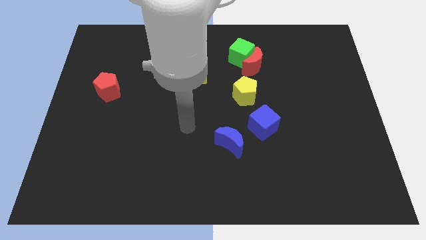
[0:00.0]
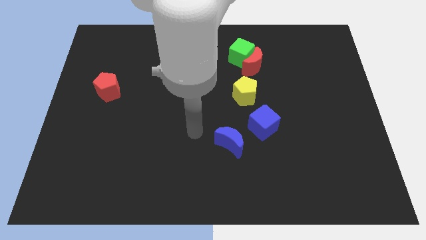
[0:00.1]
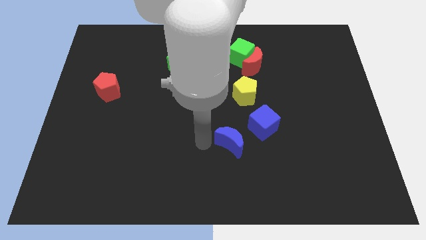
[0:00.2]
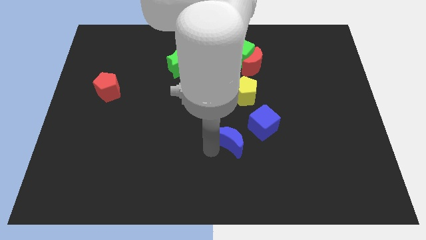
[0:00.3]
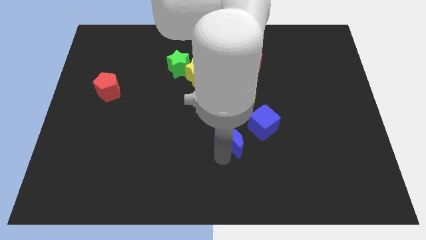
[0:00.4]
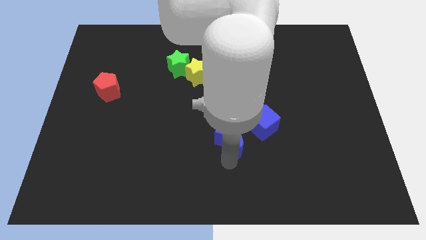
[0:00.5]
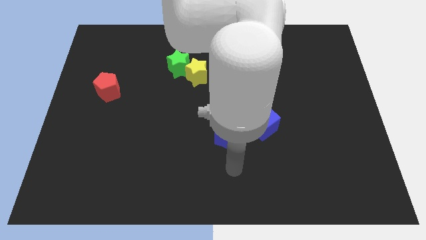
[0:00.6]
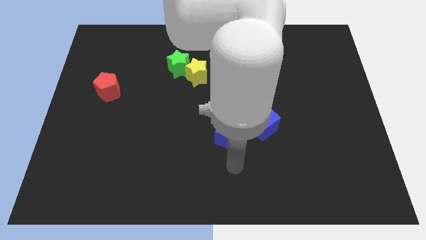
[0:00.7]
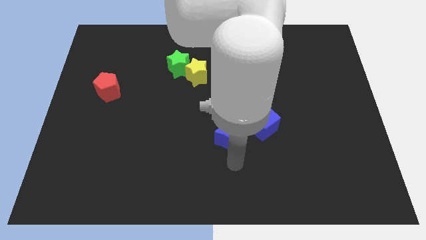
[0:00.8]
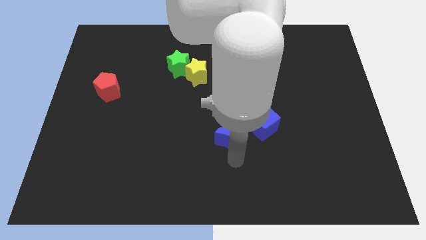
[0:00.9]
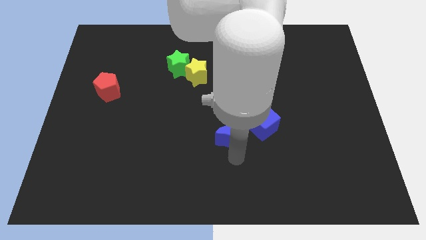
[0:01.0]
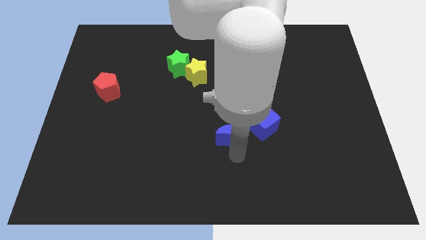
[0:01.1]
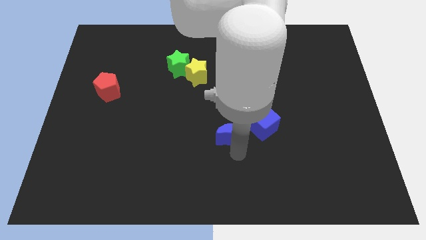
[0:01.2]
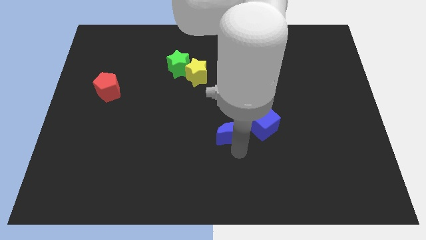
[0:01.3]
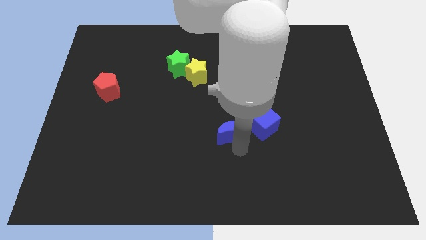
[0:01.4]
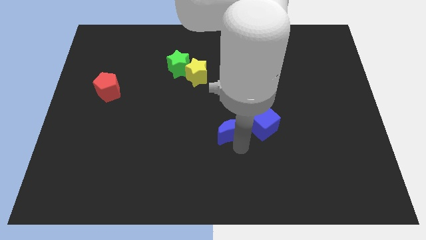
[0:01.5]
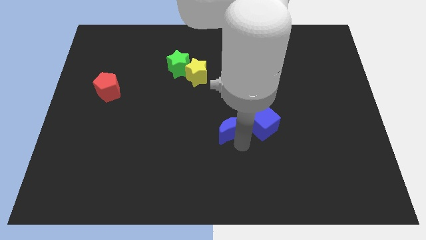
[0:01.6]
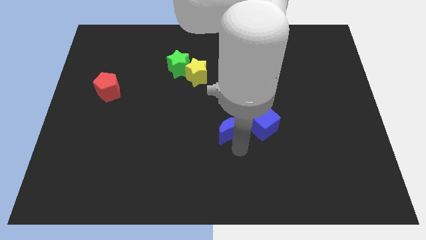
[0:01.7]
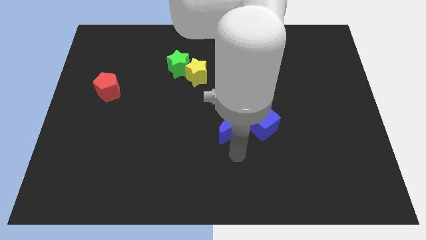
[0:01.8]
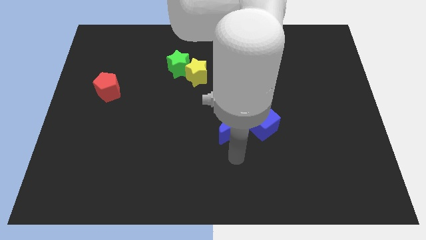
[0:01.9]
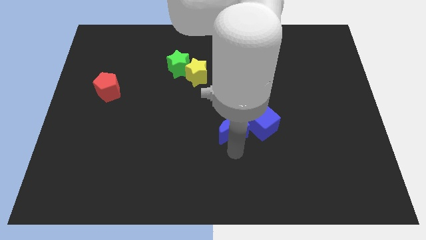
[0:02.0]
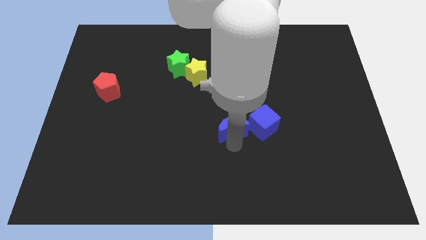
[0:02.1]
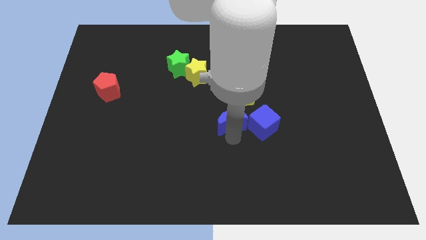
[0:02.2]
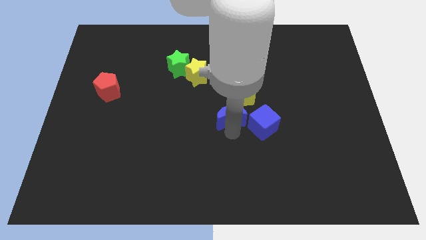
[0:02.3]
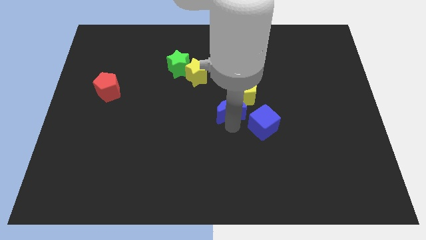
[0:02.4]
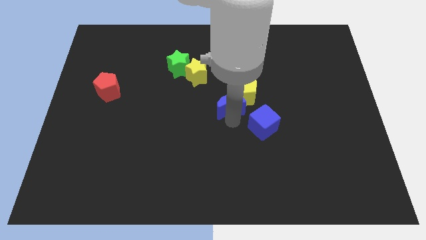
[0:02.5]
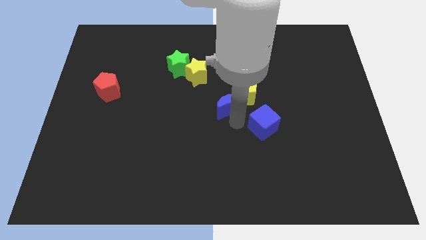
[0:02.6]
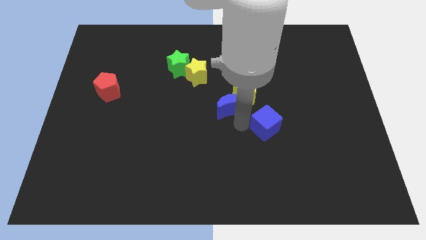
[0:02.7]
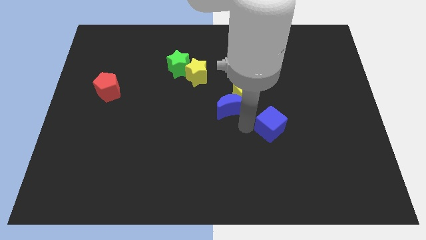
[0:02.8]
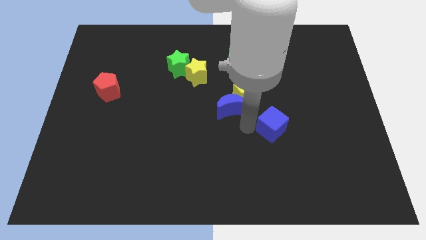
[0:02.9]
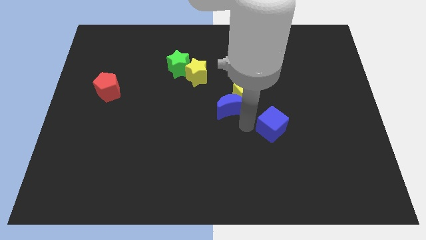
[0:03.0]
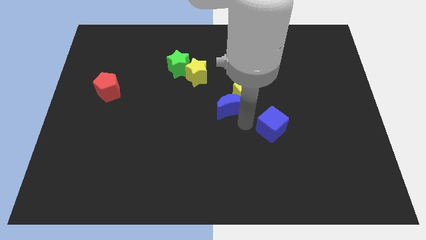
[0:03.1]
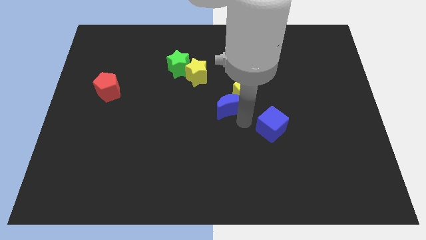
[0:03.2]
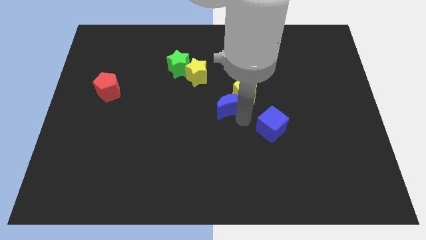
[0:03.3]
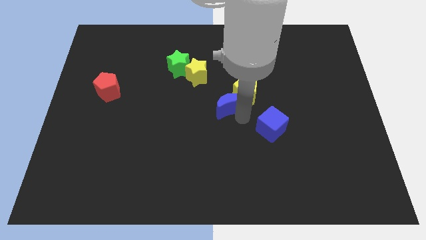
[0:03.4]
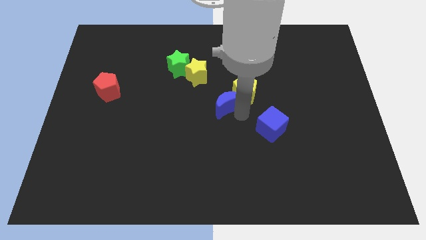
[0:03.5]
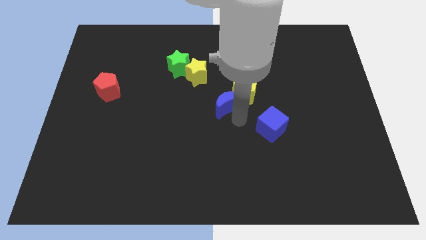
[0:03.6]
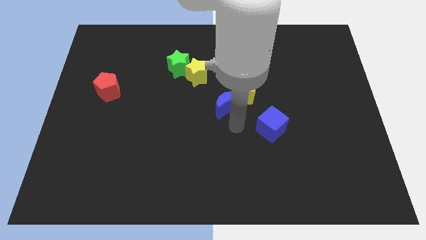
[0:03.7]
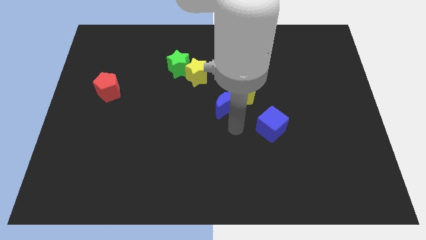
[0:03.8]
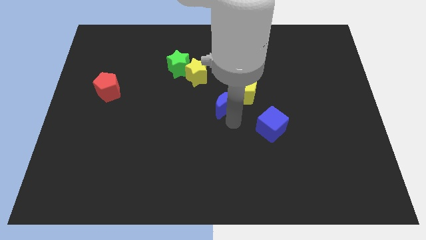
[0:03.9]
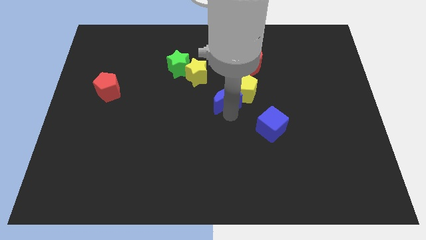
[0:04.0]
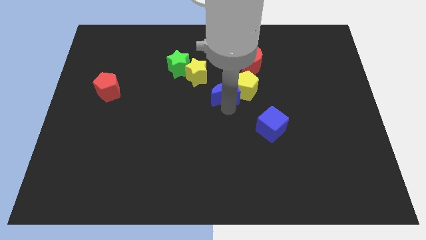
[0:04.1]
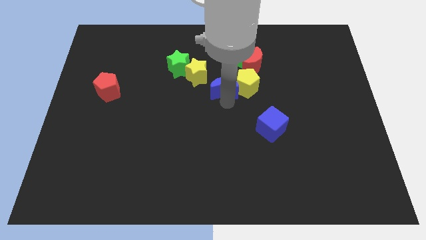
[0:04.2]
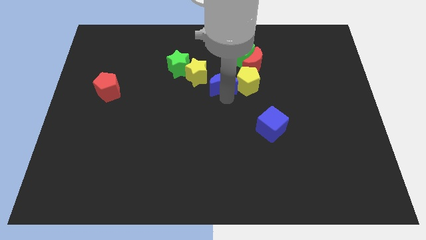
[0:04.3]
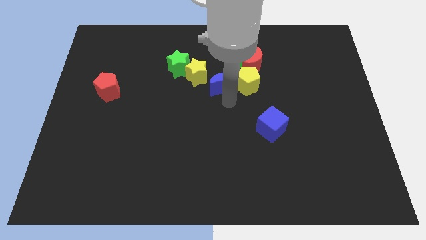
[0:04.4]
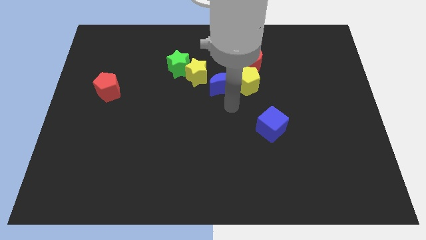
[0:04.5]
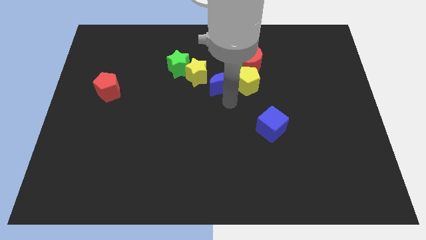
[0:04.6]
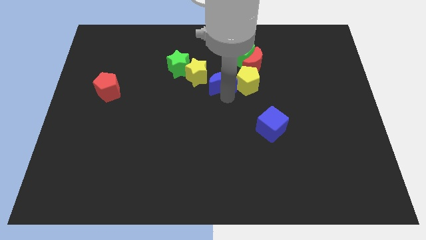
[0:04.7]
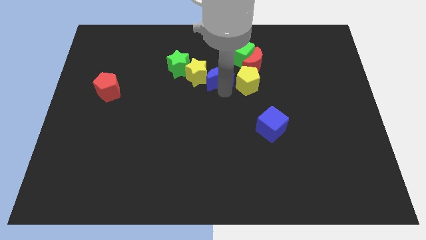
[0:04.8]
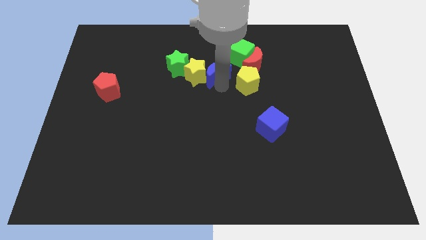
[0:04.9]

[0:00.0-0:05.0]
slide the blue moon to the left side of the red moon

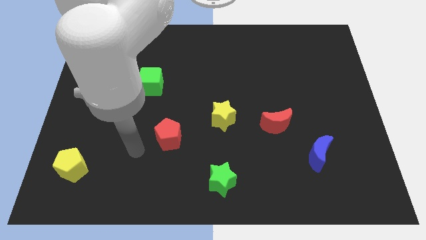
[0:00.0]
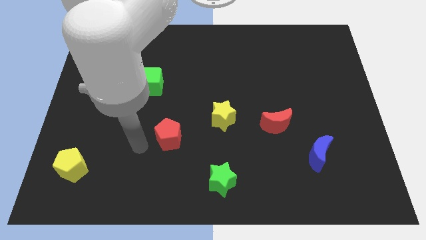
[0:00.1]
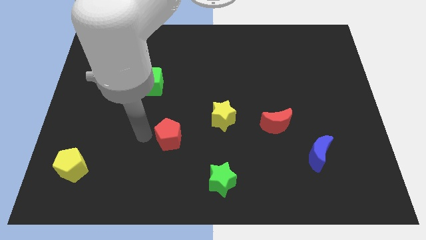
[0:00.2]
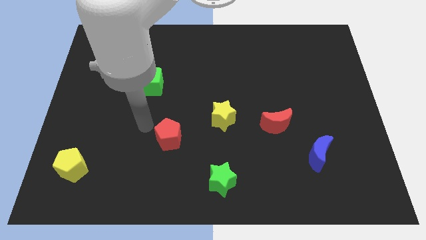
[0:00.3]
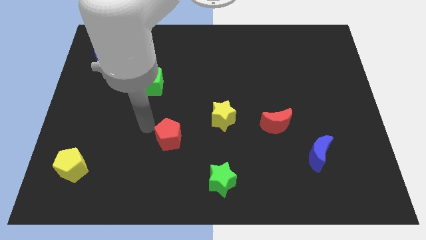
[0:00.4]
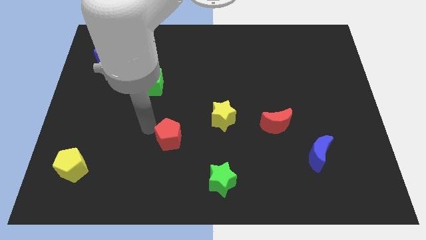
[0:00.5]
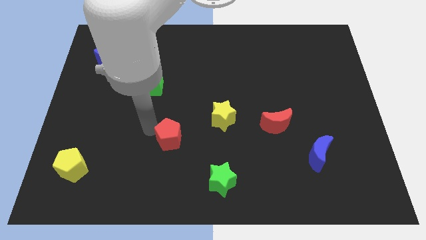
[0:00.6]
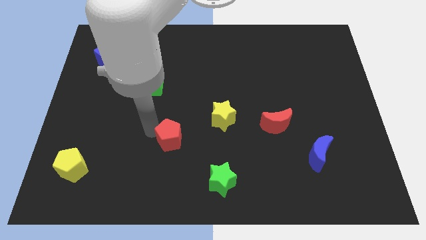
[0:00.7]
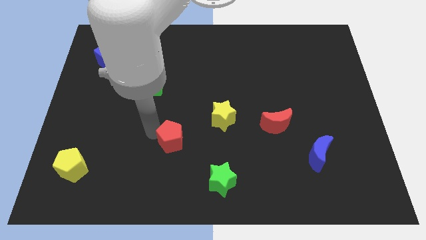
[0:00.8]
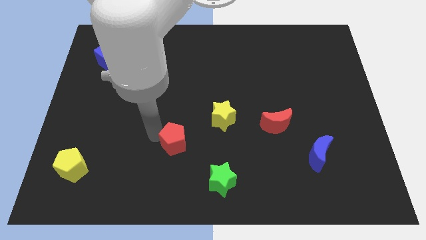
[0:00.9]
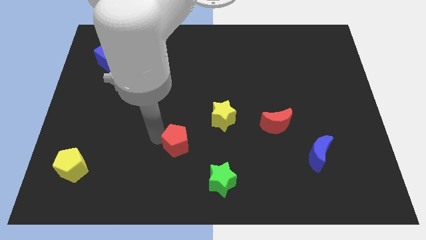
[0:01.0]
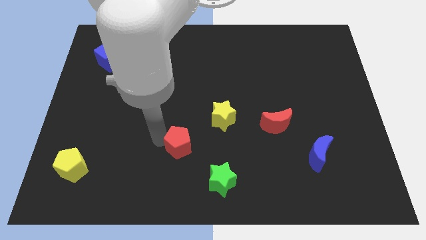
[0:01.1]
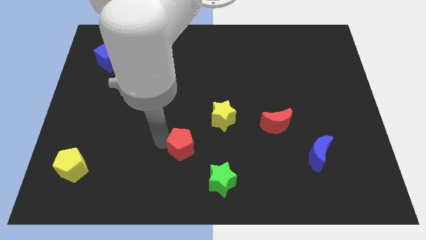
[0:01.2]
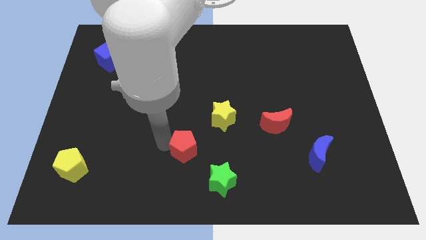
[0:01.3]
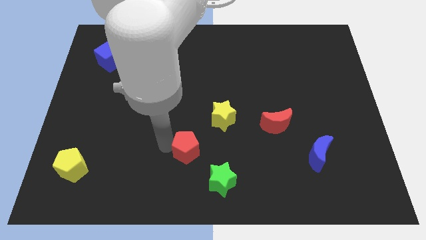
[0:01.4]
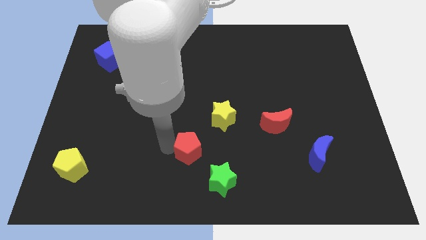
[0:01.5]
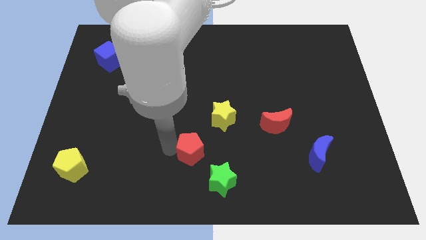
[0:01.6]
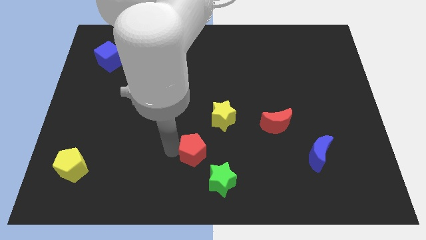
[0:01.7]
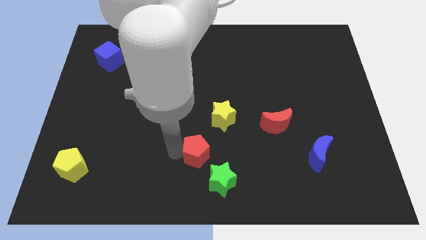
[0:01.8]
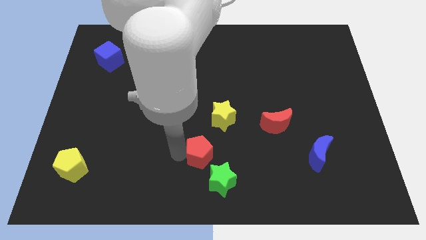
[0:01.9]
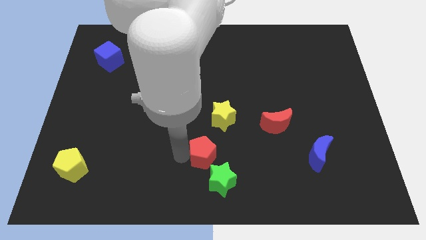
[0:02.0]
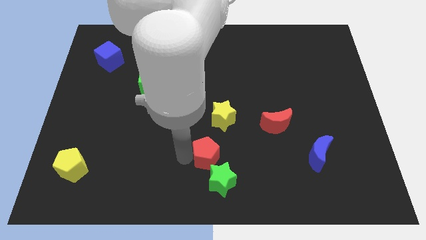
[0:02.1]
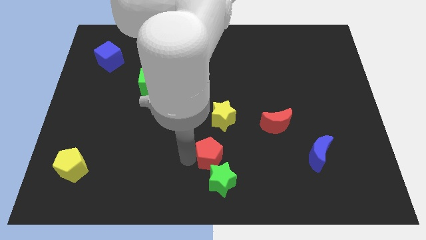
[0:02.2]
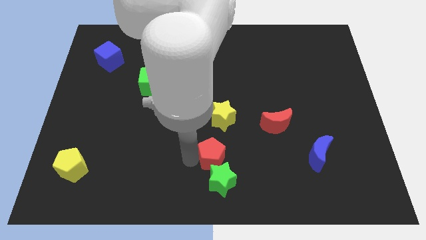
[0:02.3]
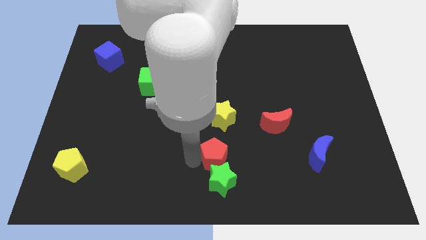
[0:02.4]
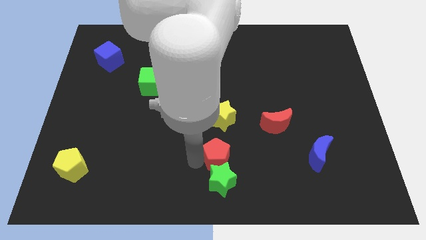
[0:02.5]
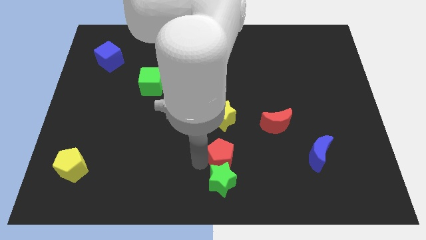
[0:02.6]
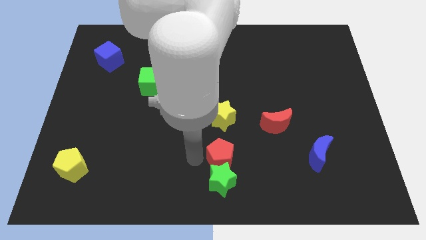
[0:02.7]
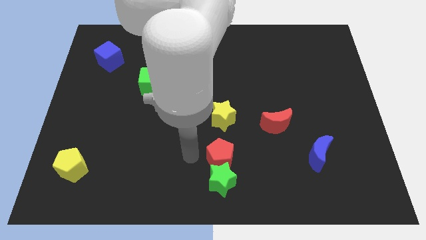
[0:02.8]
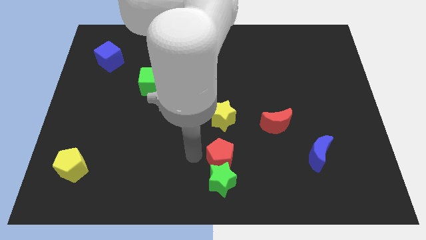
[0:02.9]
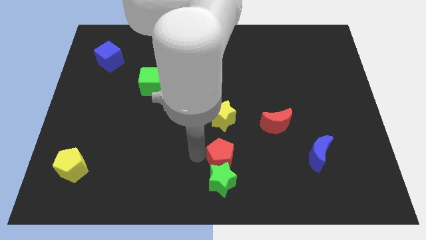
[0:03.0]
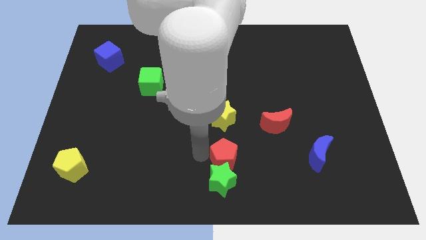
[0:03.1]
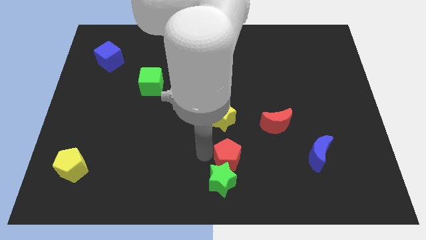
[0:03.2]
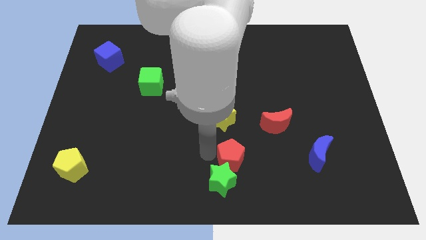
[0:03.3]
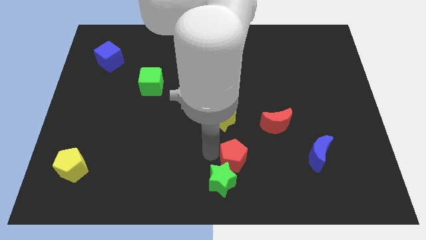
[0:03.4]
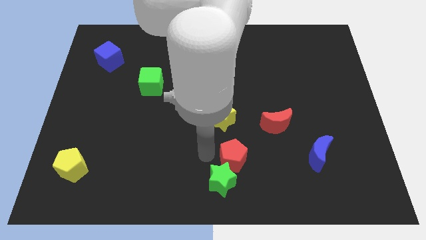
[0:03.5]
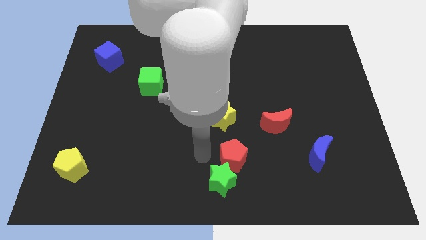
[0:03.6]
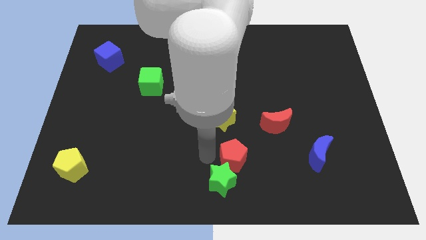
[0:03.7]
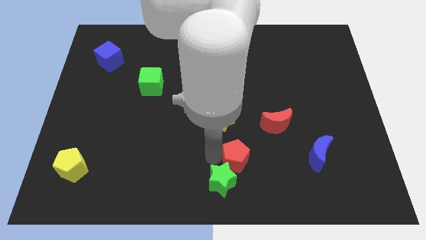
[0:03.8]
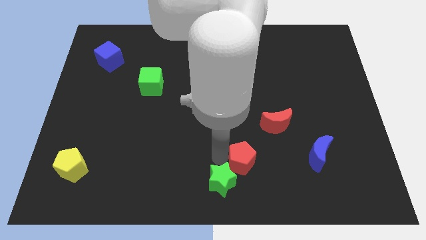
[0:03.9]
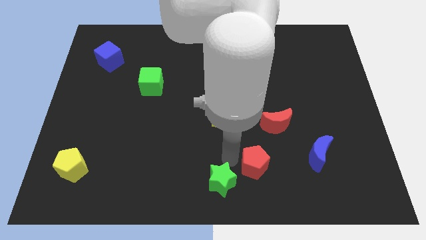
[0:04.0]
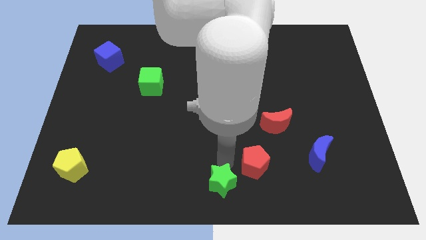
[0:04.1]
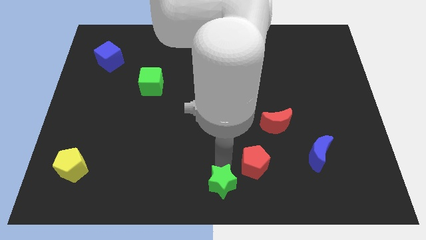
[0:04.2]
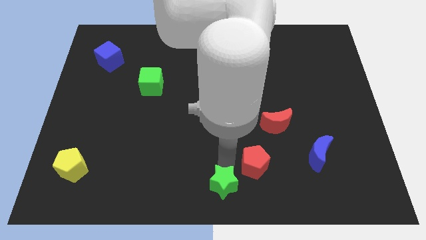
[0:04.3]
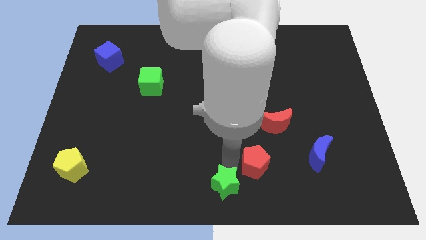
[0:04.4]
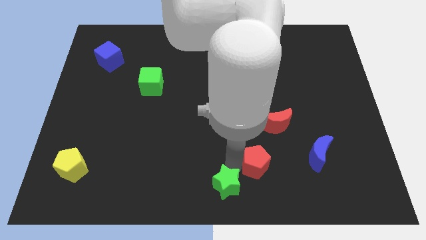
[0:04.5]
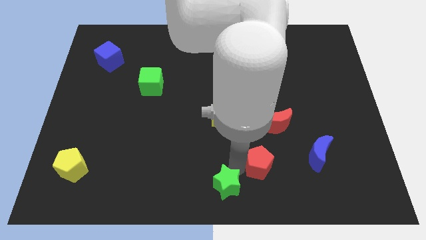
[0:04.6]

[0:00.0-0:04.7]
push the red pentagon below the red moon
